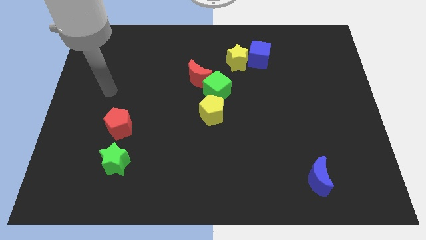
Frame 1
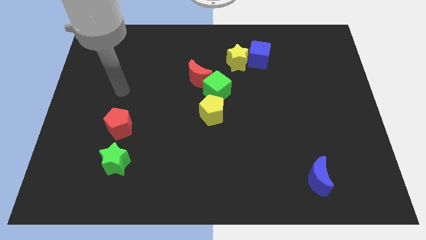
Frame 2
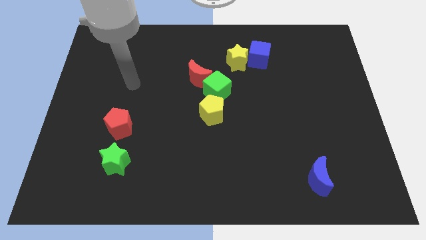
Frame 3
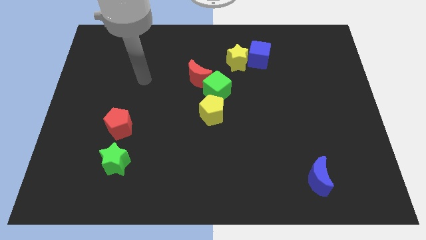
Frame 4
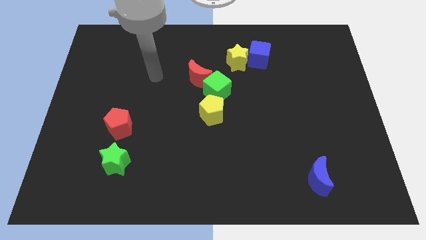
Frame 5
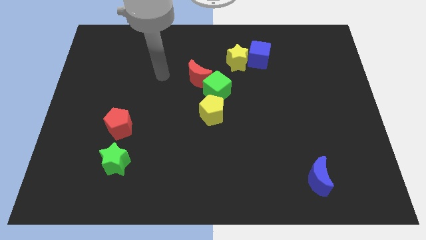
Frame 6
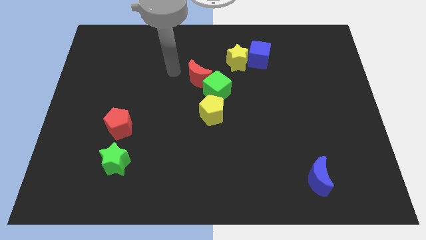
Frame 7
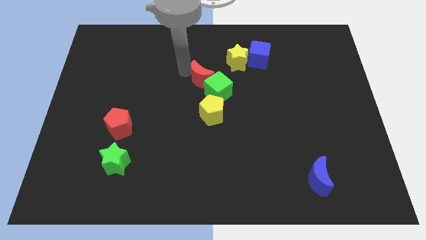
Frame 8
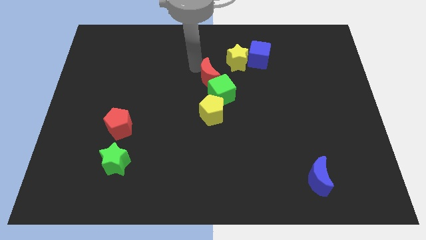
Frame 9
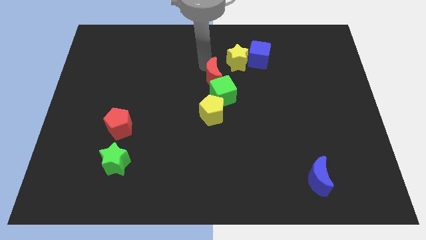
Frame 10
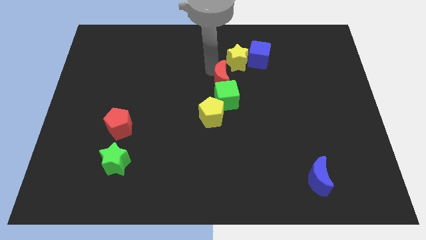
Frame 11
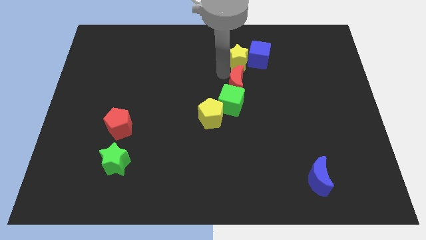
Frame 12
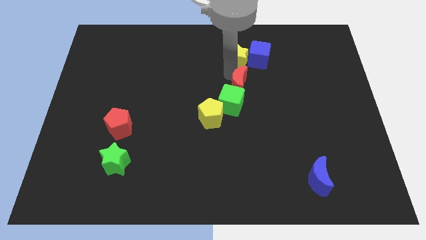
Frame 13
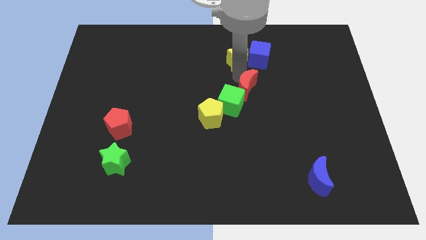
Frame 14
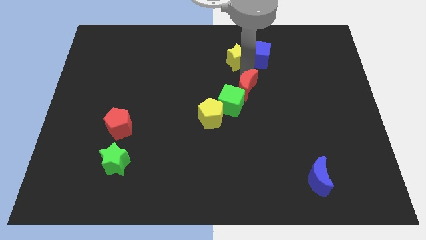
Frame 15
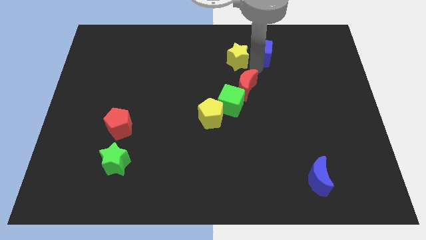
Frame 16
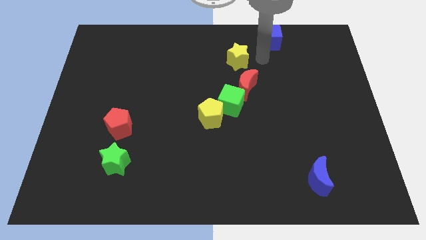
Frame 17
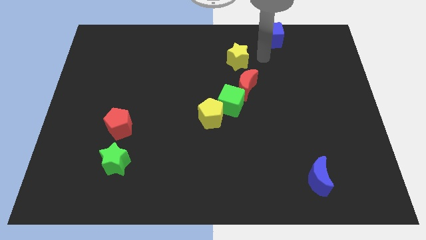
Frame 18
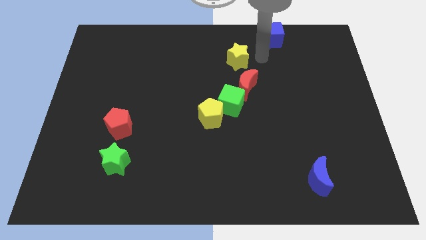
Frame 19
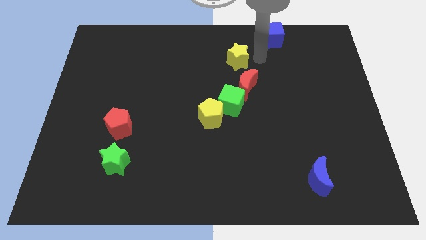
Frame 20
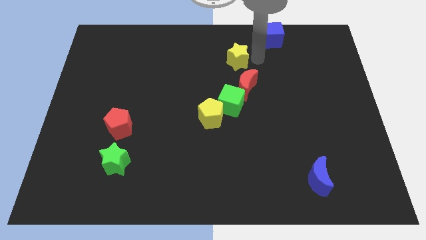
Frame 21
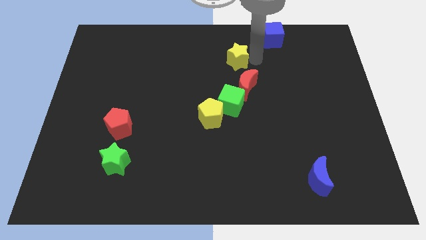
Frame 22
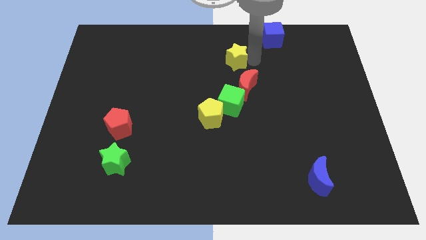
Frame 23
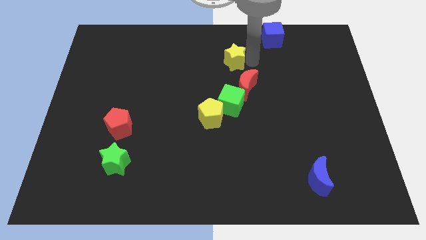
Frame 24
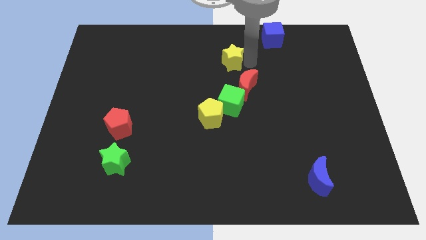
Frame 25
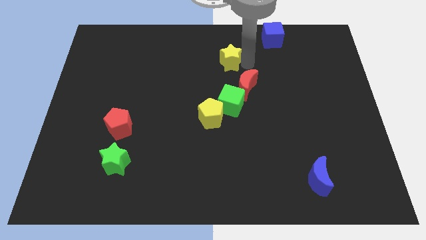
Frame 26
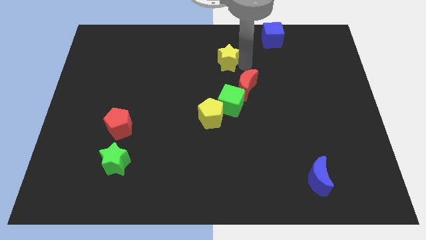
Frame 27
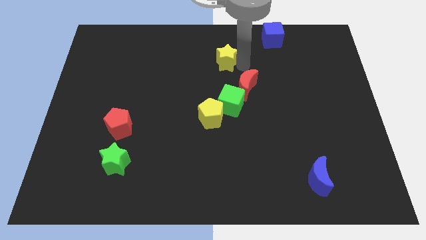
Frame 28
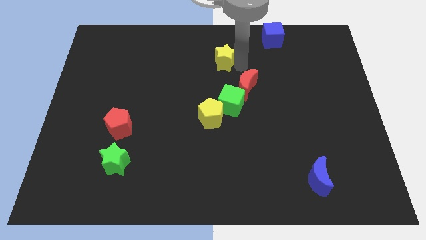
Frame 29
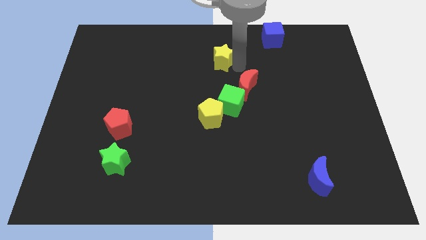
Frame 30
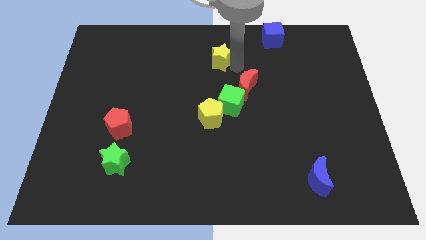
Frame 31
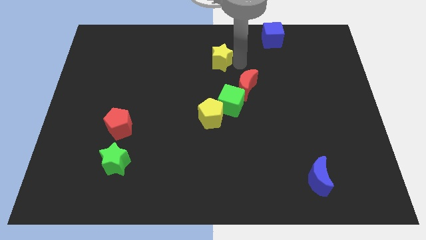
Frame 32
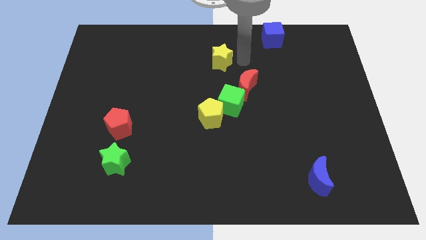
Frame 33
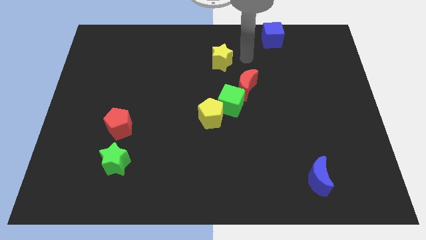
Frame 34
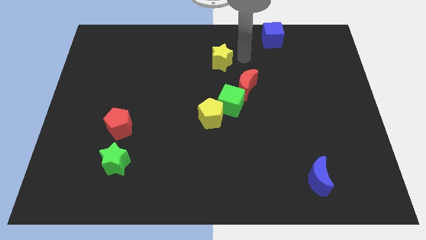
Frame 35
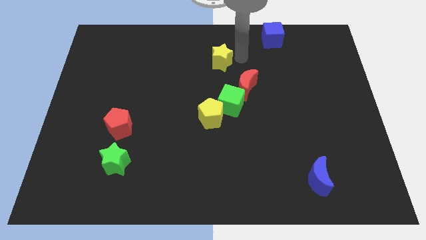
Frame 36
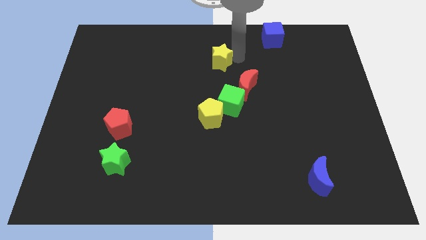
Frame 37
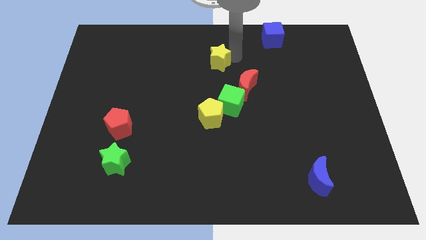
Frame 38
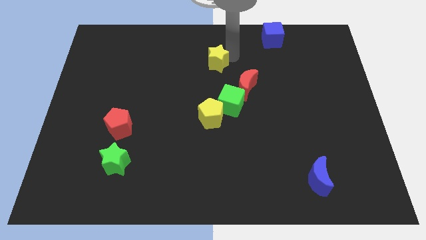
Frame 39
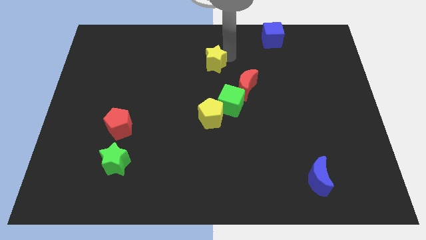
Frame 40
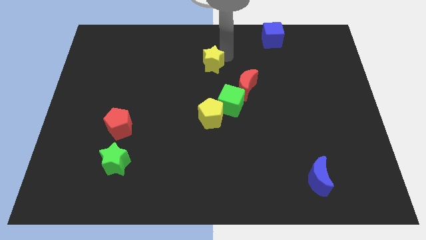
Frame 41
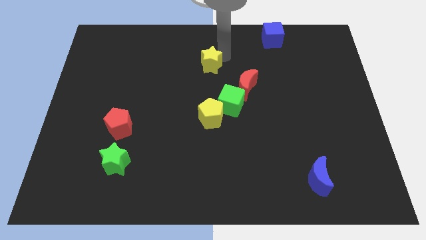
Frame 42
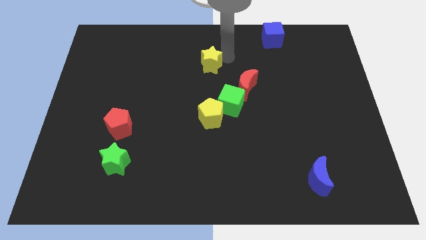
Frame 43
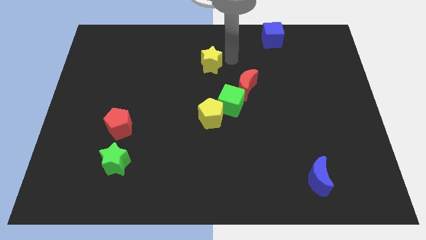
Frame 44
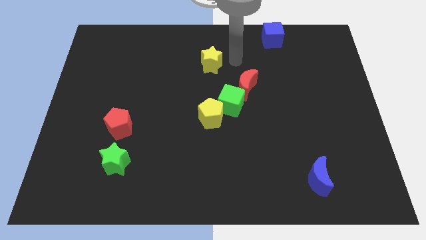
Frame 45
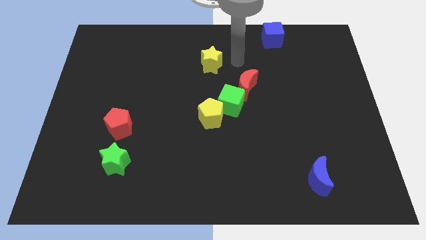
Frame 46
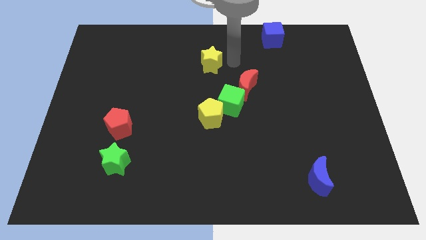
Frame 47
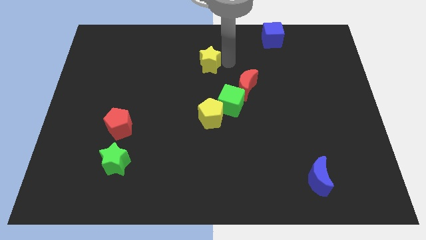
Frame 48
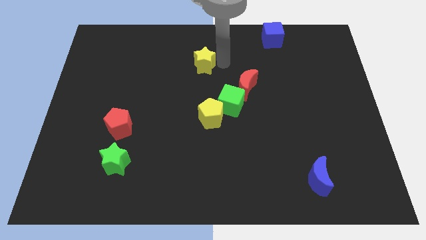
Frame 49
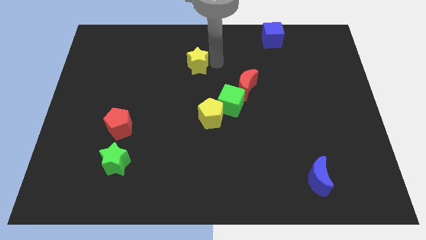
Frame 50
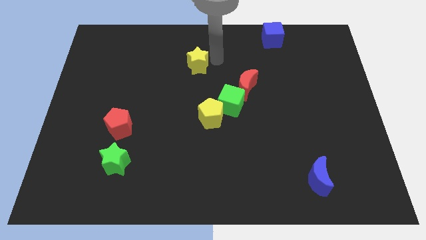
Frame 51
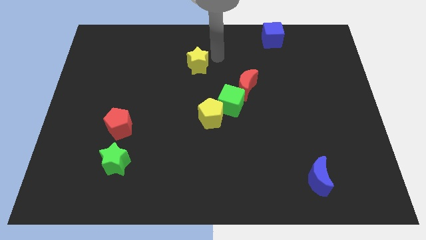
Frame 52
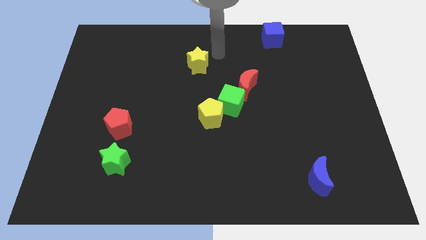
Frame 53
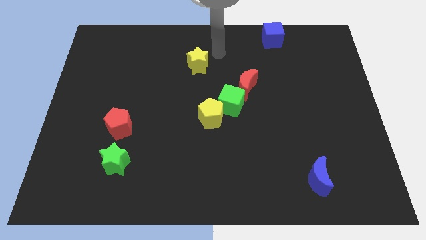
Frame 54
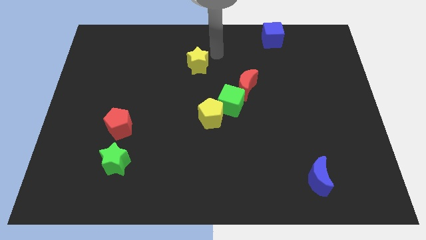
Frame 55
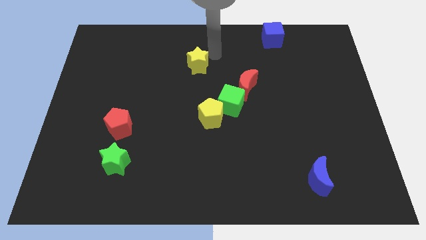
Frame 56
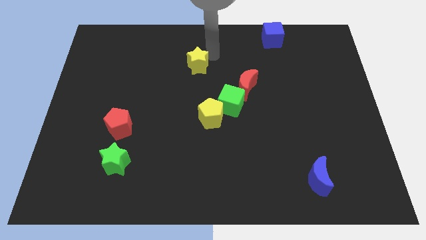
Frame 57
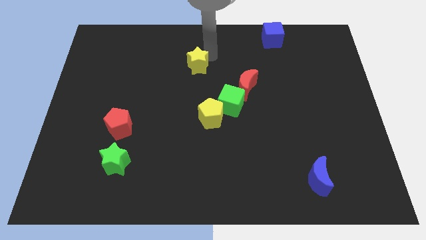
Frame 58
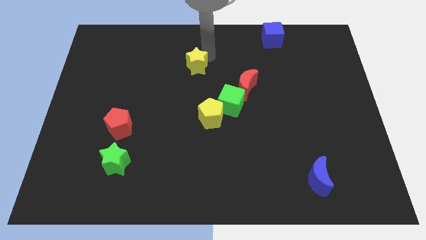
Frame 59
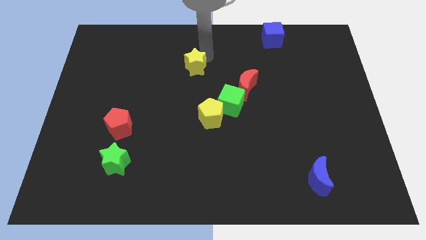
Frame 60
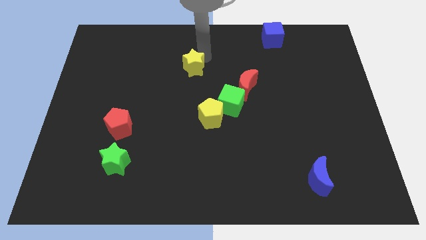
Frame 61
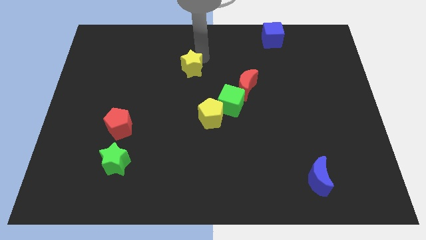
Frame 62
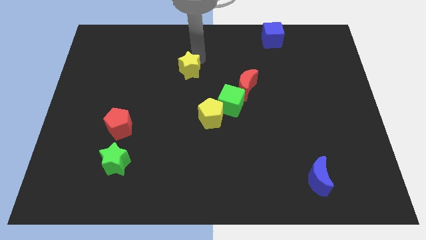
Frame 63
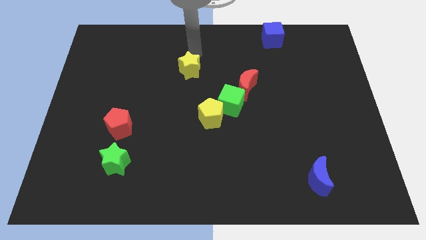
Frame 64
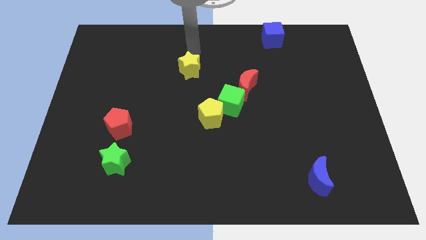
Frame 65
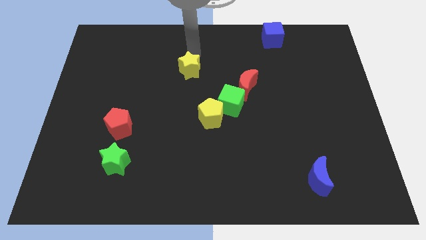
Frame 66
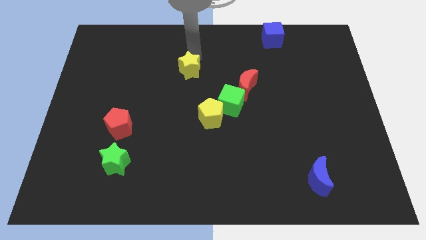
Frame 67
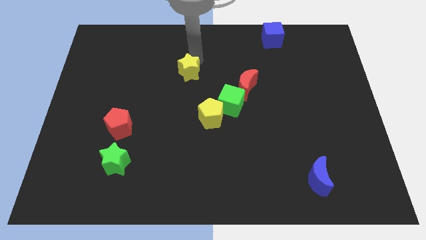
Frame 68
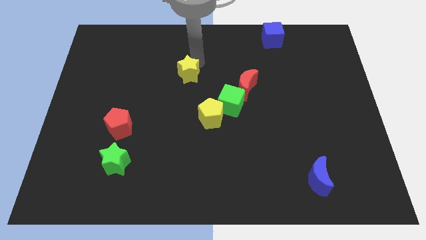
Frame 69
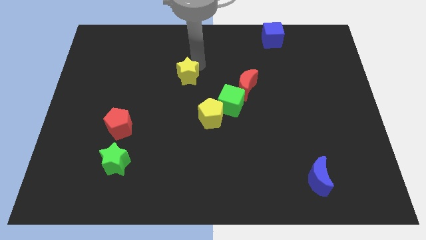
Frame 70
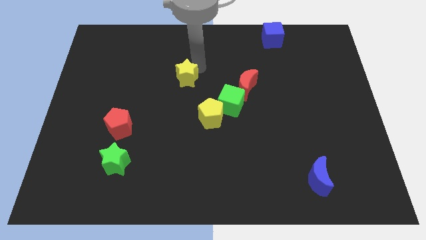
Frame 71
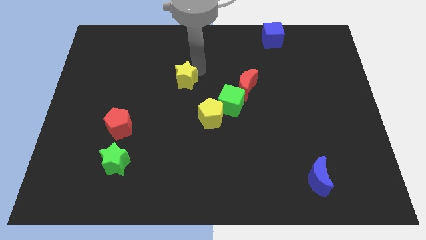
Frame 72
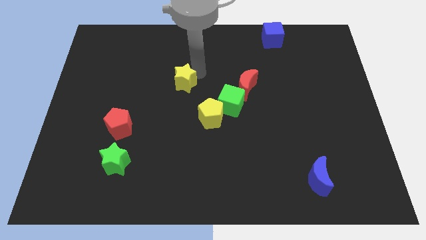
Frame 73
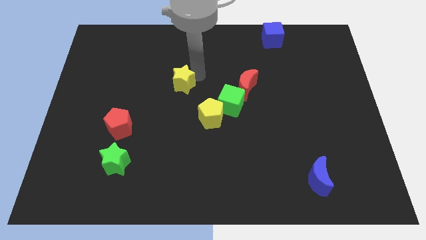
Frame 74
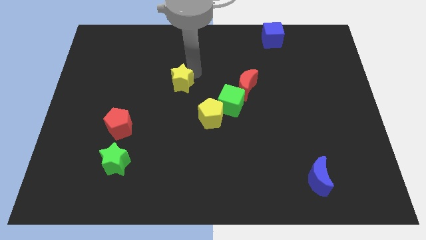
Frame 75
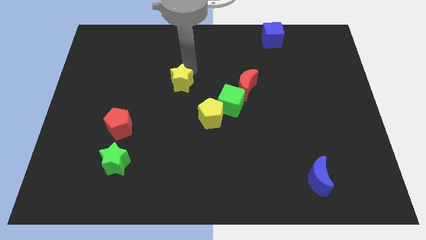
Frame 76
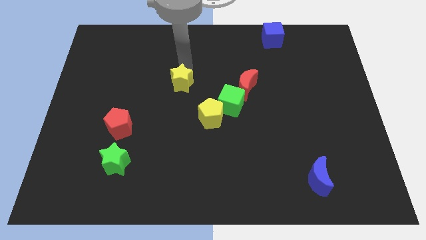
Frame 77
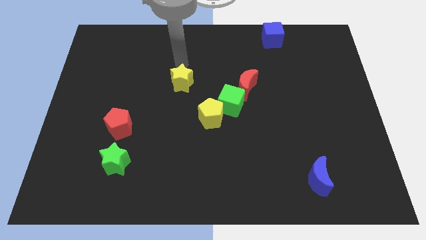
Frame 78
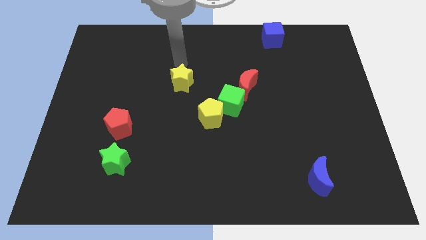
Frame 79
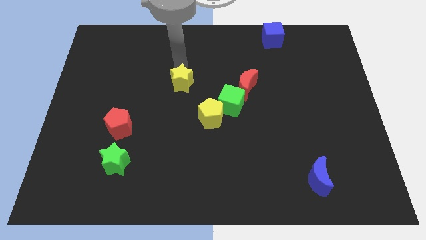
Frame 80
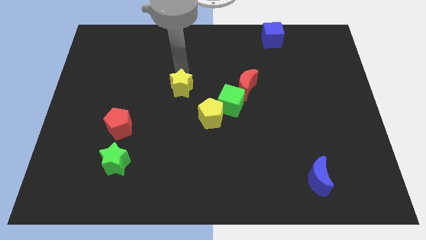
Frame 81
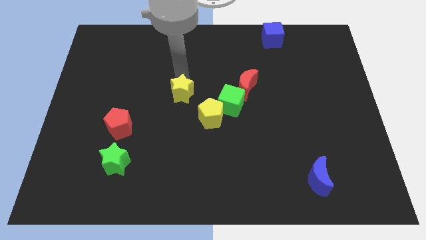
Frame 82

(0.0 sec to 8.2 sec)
slide the yellow star to the left of the green cube
